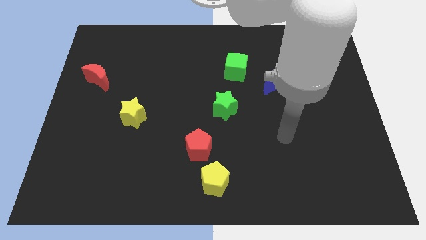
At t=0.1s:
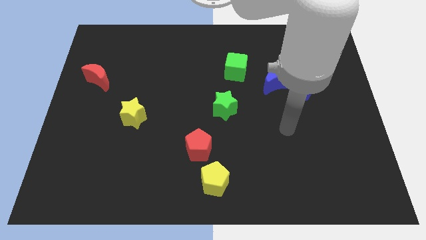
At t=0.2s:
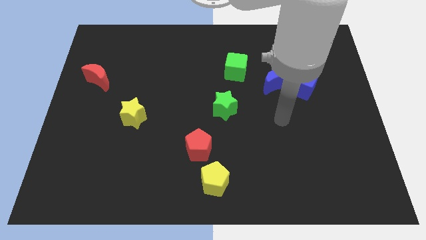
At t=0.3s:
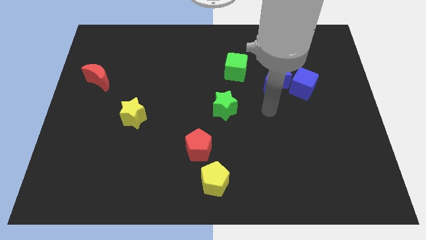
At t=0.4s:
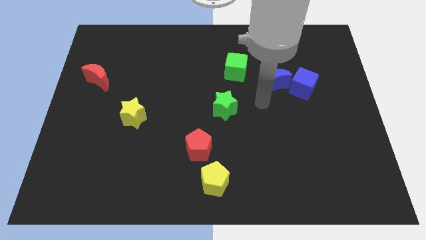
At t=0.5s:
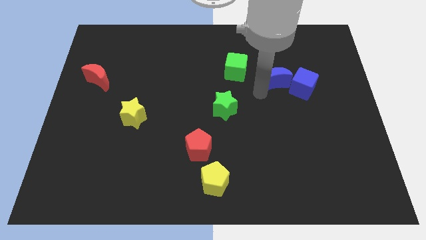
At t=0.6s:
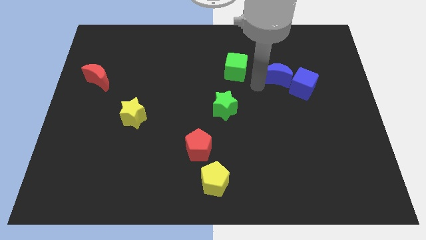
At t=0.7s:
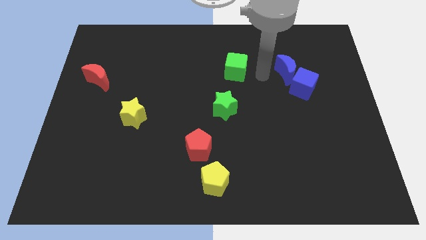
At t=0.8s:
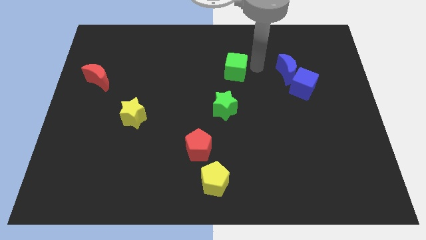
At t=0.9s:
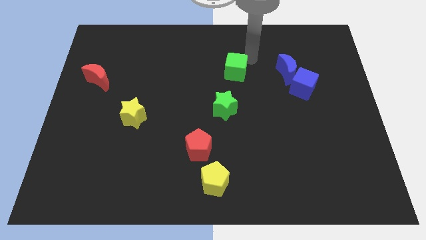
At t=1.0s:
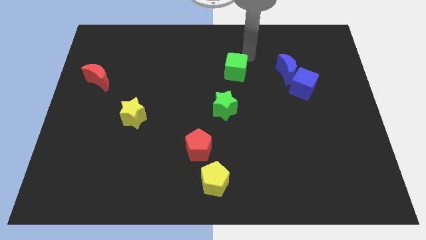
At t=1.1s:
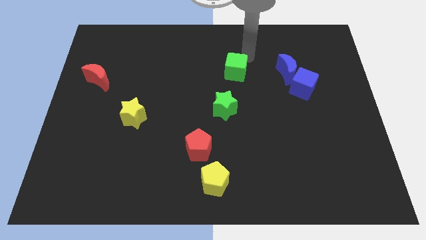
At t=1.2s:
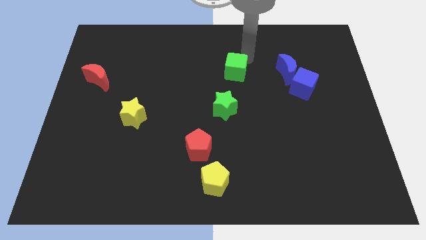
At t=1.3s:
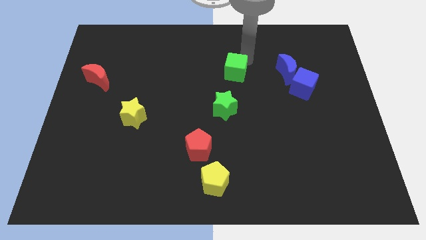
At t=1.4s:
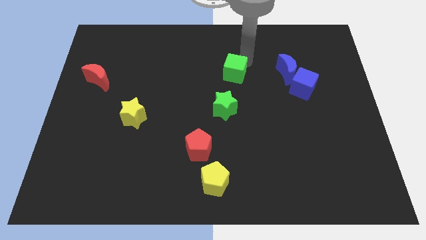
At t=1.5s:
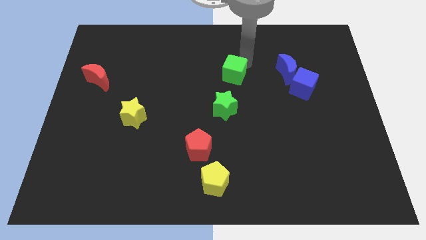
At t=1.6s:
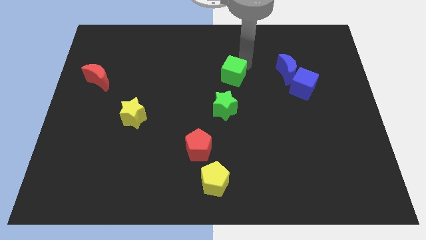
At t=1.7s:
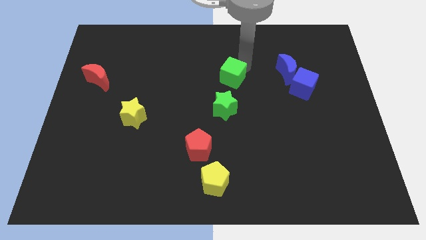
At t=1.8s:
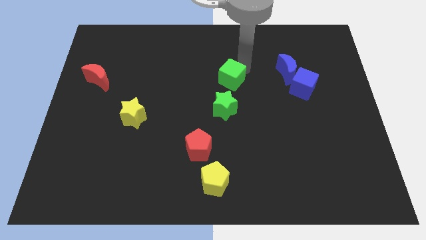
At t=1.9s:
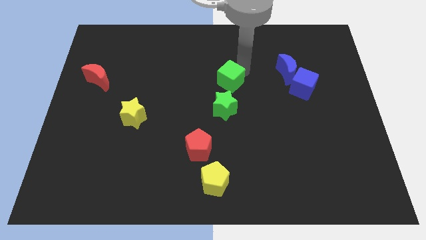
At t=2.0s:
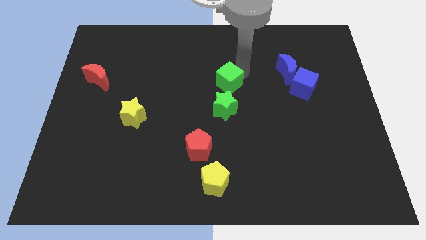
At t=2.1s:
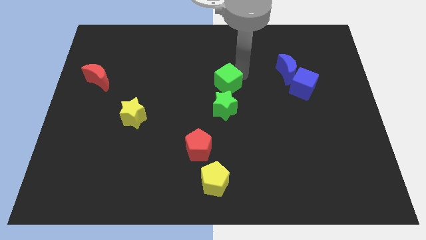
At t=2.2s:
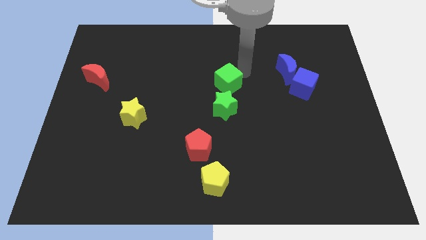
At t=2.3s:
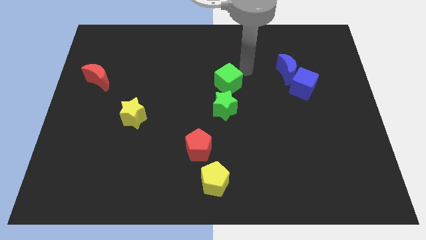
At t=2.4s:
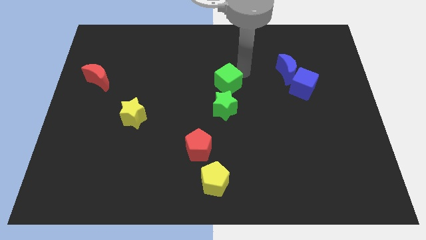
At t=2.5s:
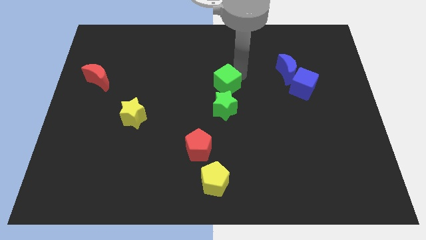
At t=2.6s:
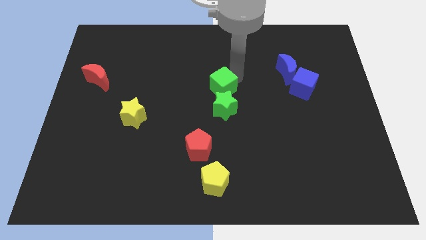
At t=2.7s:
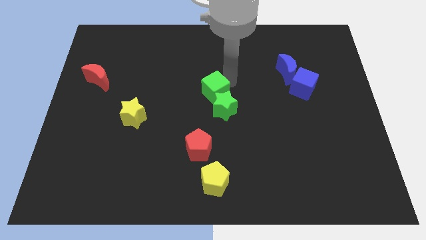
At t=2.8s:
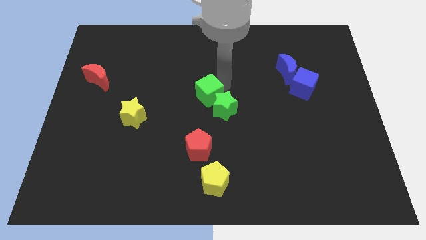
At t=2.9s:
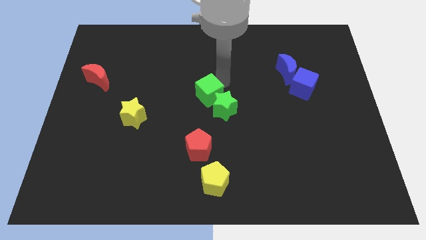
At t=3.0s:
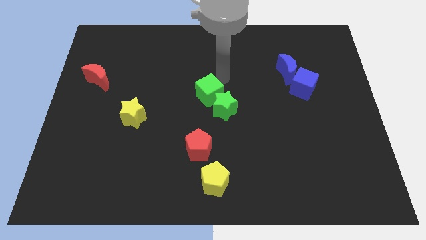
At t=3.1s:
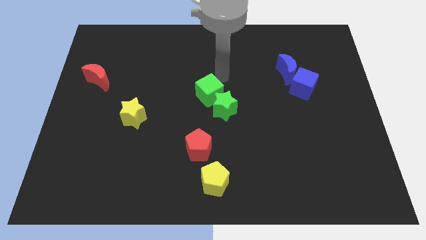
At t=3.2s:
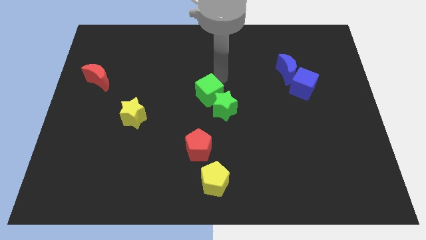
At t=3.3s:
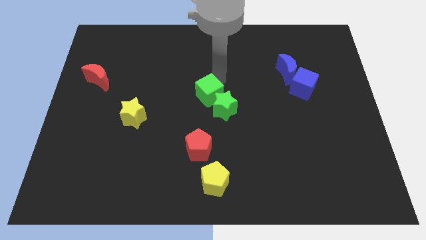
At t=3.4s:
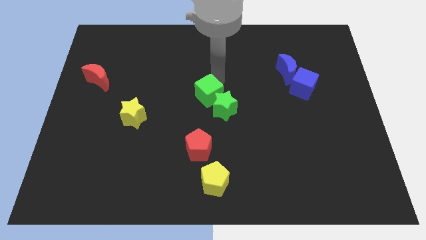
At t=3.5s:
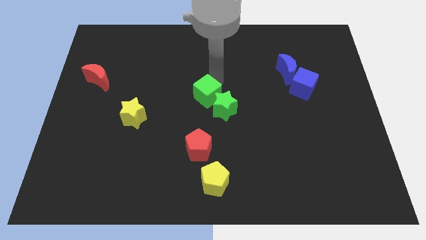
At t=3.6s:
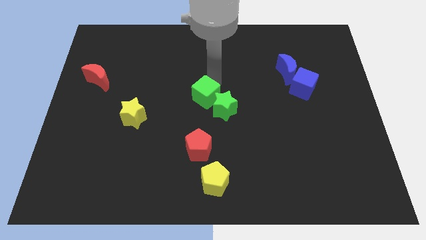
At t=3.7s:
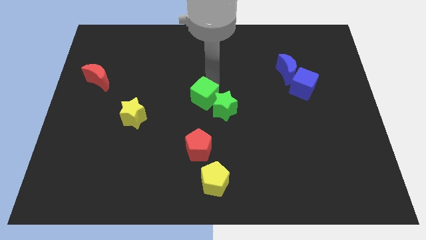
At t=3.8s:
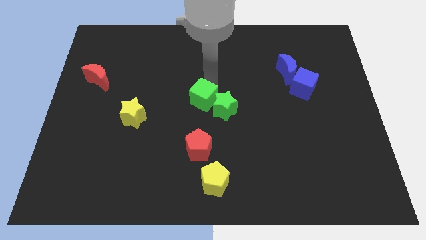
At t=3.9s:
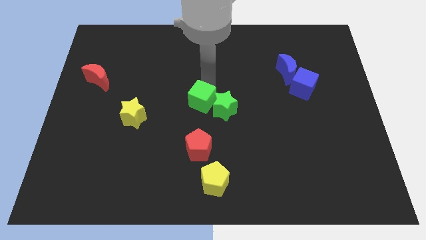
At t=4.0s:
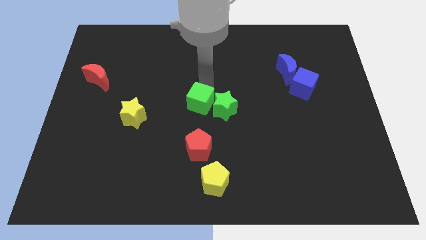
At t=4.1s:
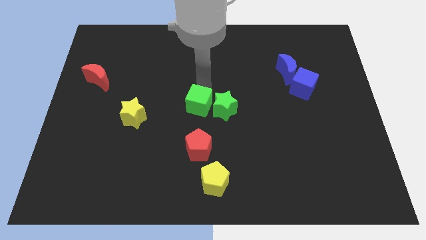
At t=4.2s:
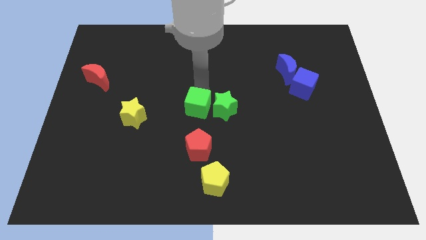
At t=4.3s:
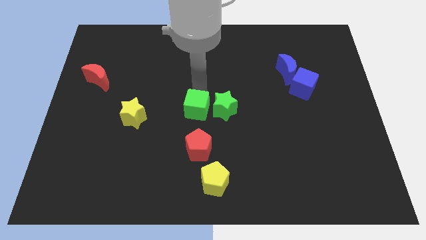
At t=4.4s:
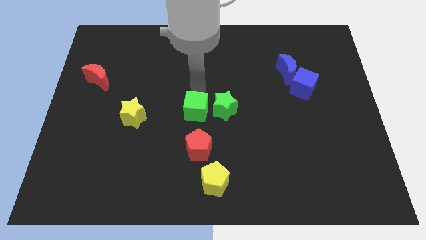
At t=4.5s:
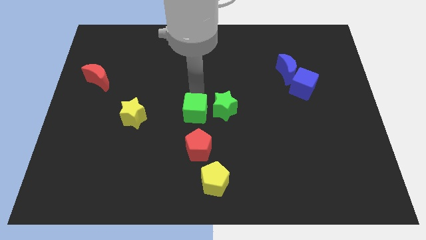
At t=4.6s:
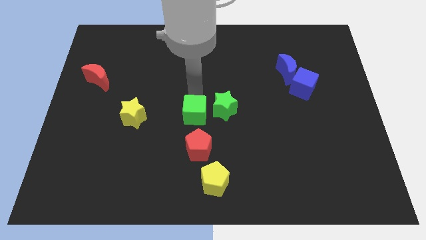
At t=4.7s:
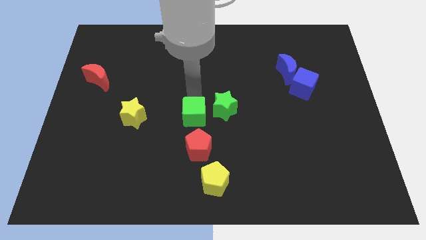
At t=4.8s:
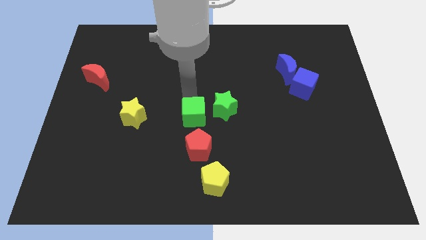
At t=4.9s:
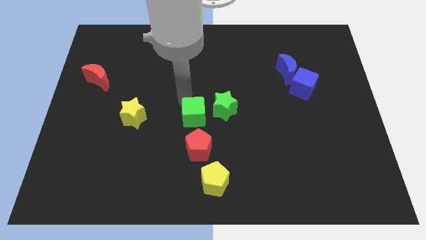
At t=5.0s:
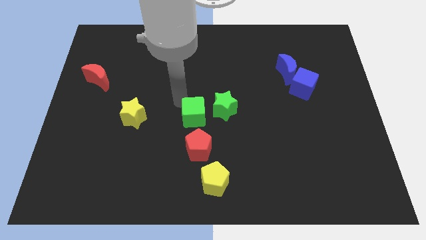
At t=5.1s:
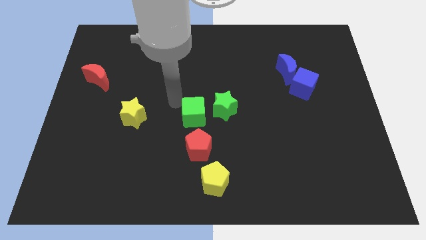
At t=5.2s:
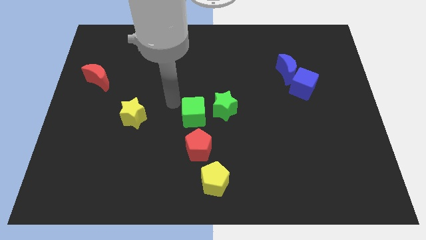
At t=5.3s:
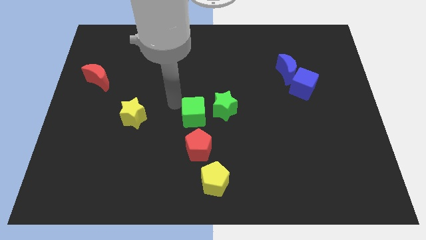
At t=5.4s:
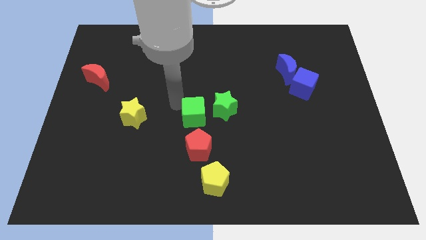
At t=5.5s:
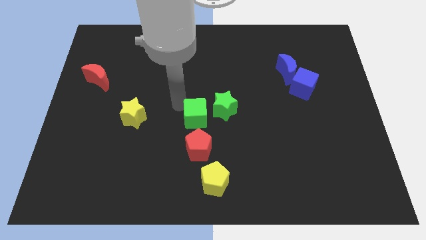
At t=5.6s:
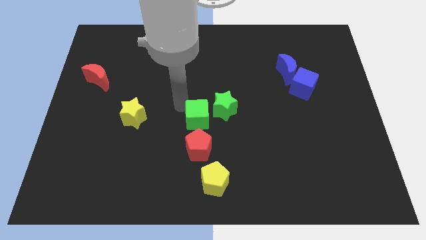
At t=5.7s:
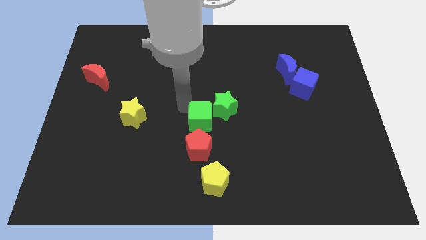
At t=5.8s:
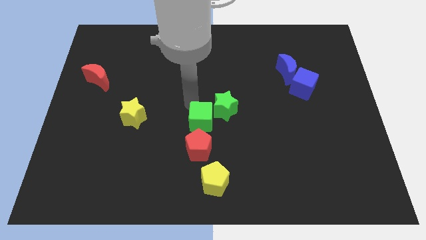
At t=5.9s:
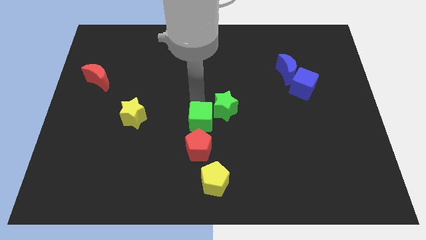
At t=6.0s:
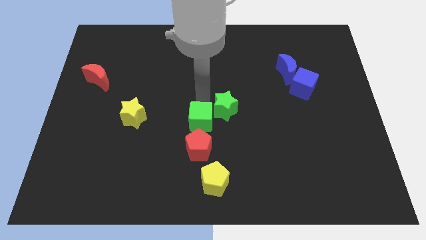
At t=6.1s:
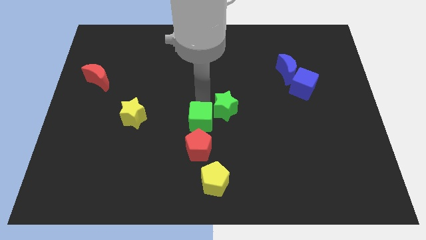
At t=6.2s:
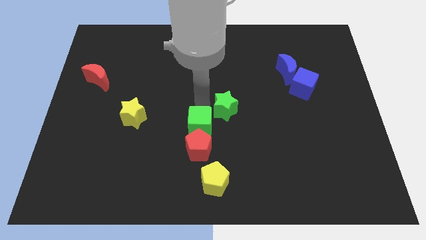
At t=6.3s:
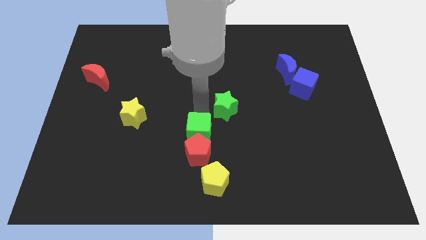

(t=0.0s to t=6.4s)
slide the green cube towards the red pentagon

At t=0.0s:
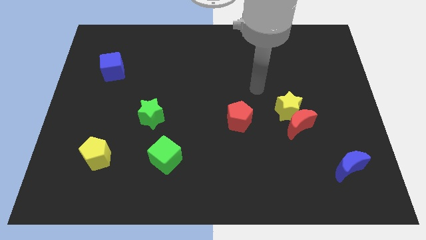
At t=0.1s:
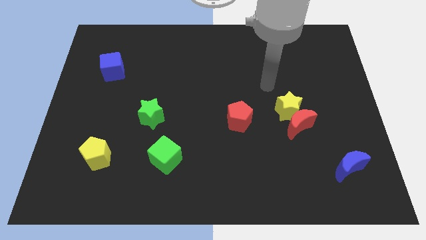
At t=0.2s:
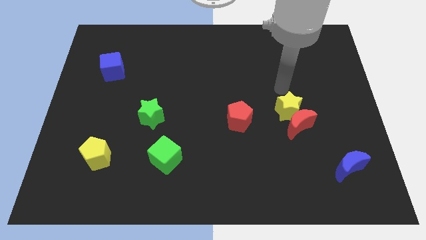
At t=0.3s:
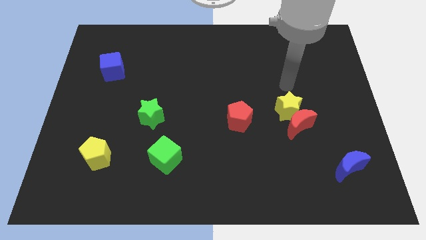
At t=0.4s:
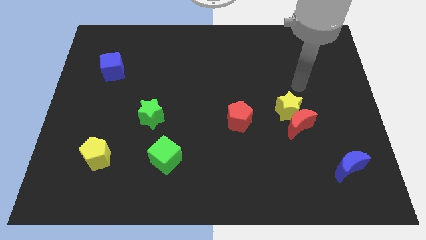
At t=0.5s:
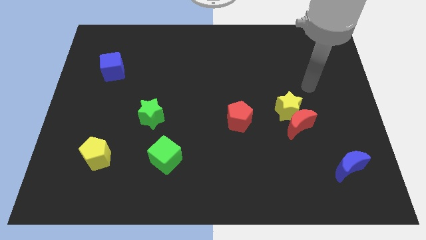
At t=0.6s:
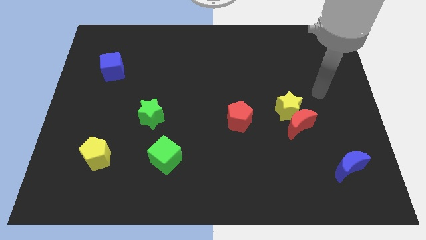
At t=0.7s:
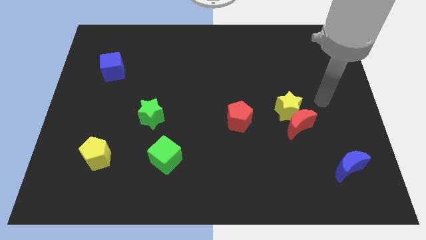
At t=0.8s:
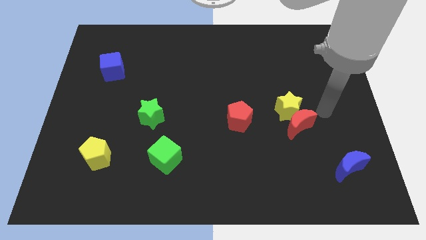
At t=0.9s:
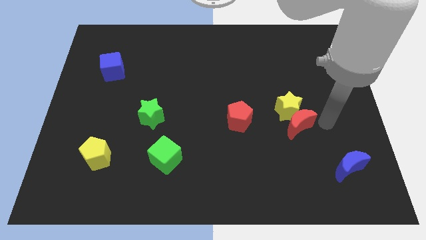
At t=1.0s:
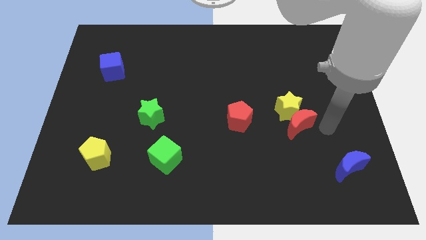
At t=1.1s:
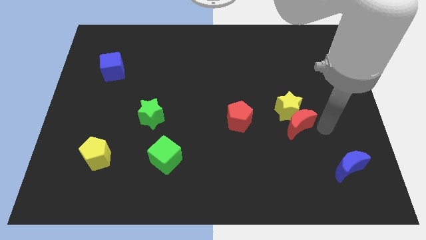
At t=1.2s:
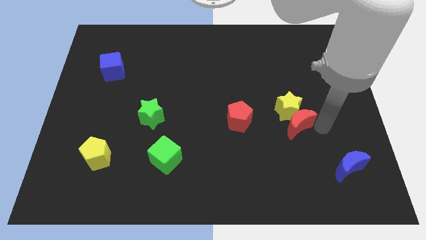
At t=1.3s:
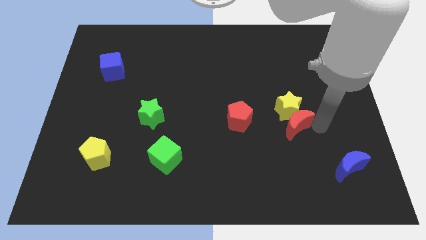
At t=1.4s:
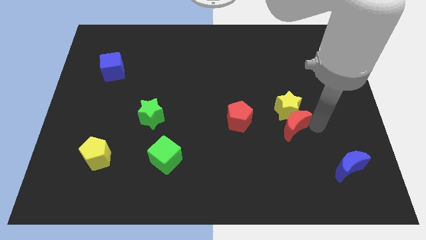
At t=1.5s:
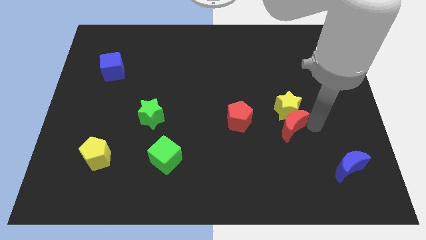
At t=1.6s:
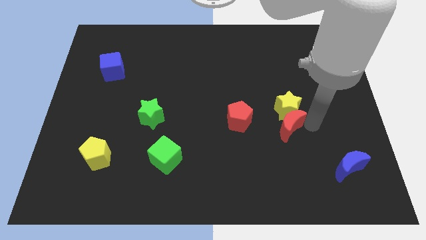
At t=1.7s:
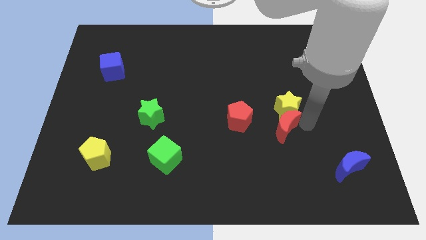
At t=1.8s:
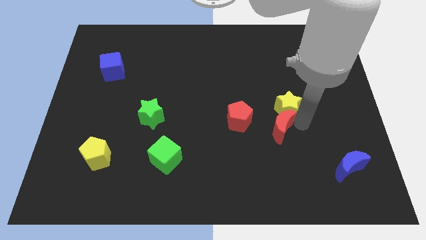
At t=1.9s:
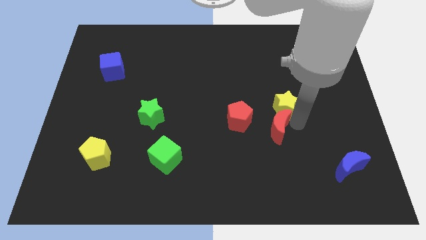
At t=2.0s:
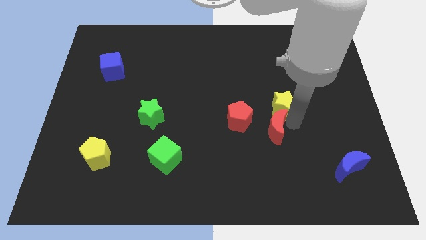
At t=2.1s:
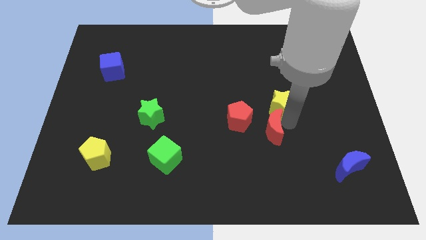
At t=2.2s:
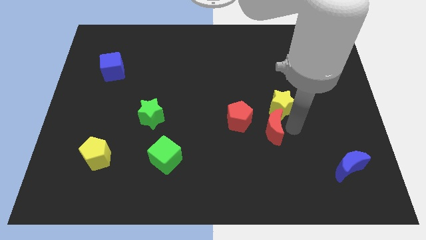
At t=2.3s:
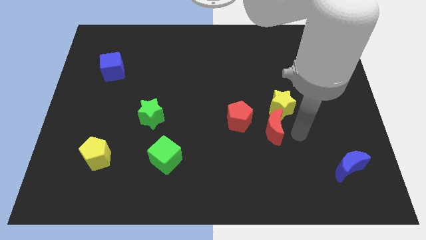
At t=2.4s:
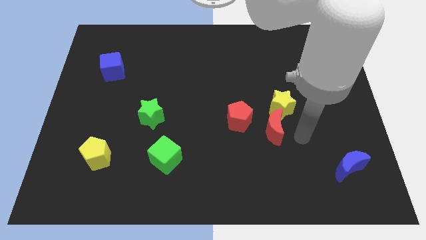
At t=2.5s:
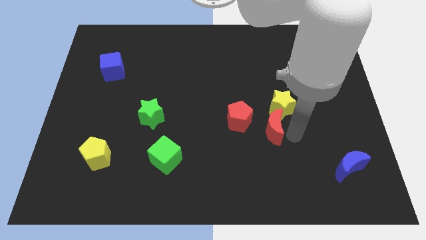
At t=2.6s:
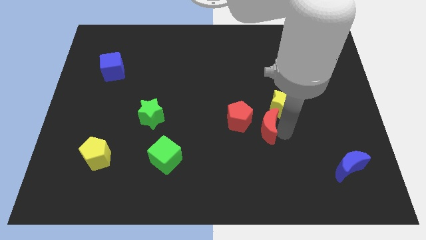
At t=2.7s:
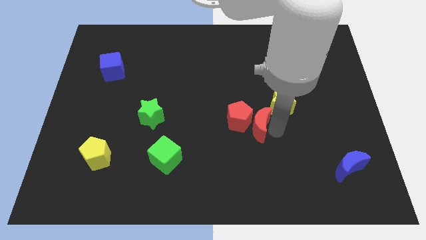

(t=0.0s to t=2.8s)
push the red moon towards the red pentagon
